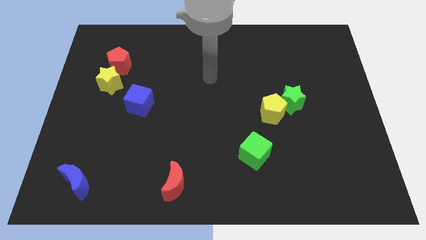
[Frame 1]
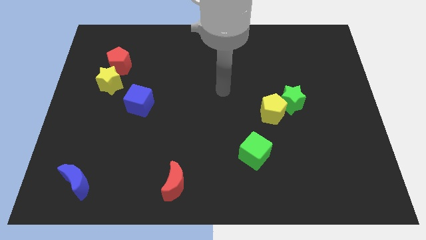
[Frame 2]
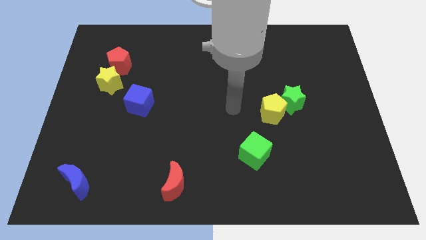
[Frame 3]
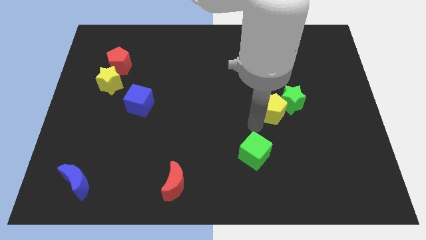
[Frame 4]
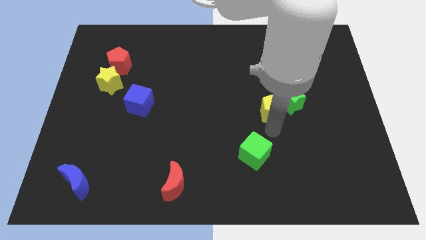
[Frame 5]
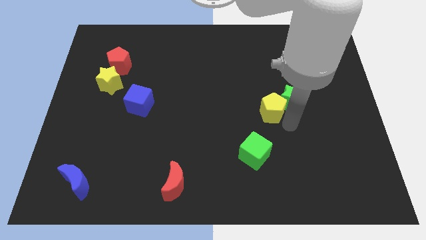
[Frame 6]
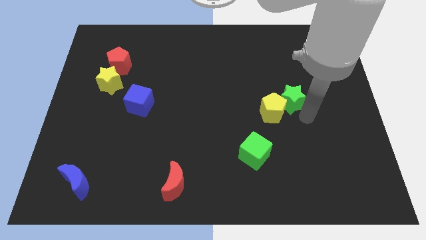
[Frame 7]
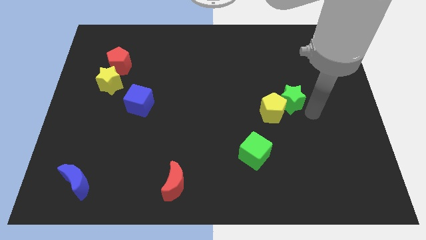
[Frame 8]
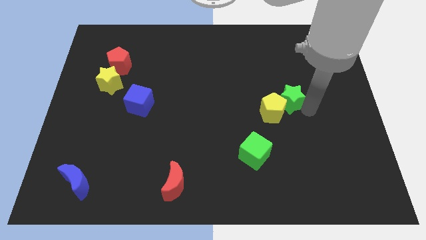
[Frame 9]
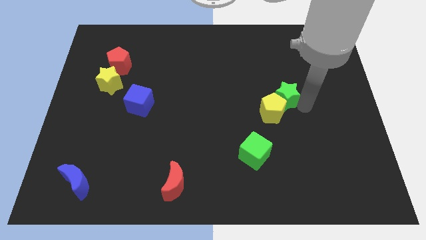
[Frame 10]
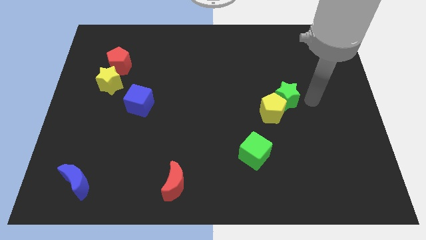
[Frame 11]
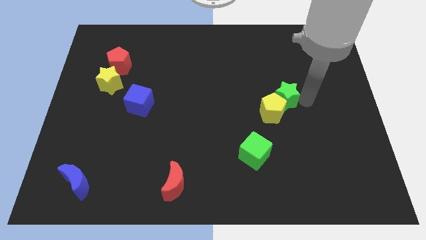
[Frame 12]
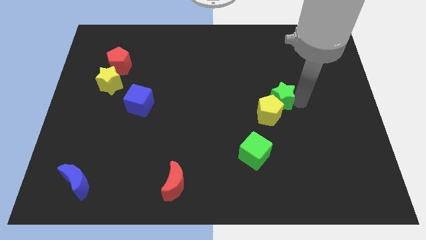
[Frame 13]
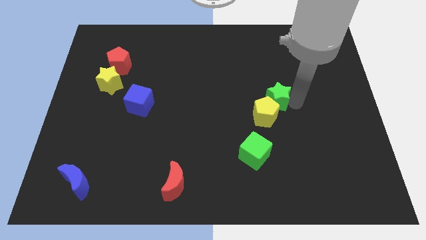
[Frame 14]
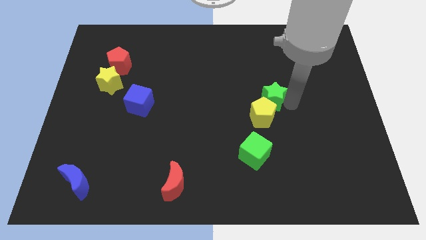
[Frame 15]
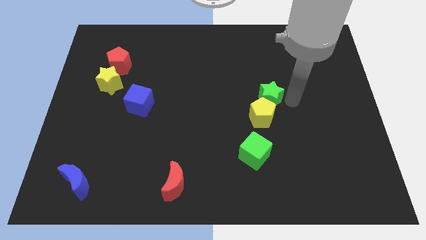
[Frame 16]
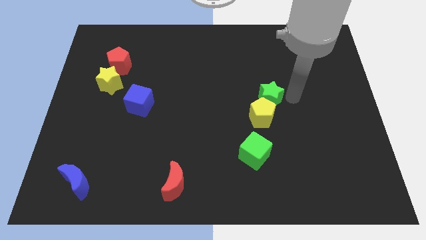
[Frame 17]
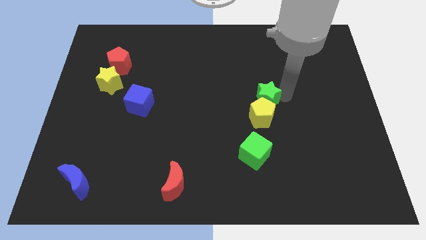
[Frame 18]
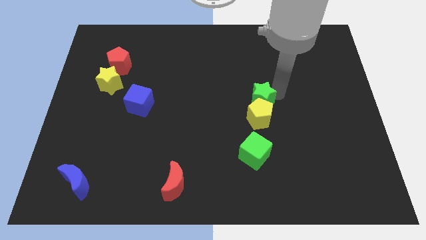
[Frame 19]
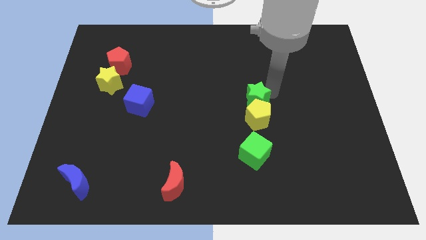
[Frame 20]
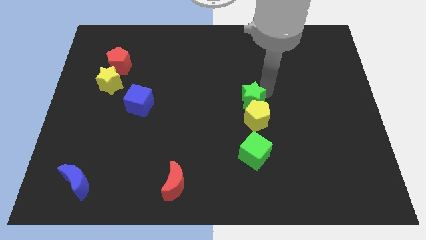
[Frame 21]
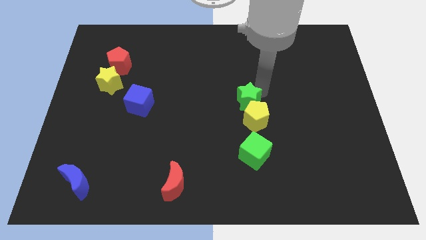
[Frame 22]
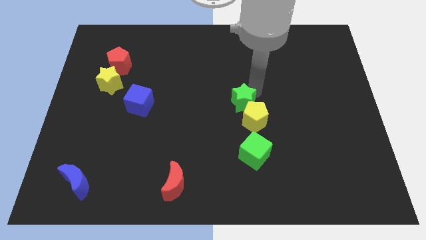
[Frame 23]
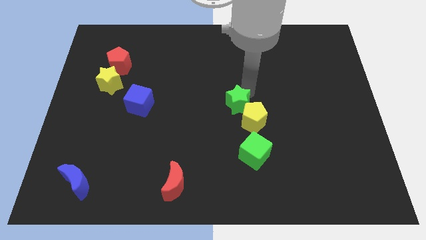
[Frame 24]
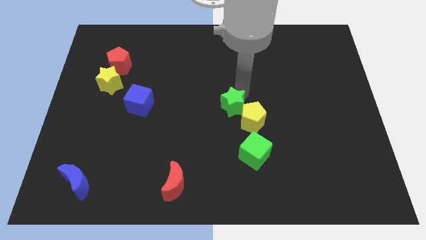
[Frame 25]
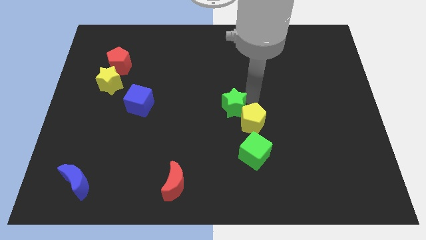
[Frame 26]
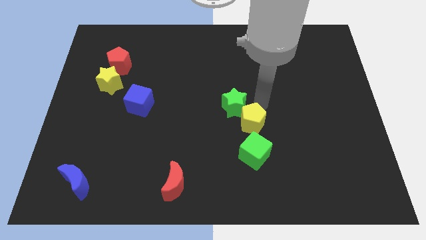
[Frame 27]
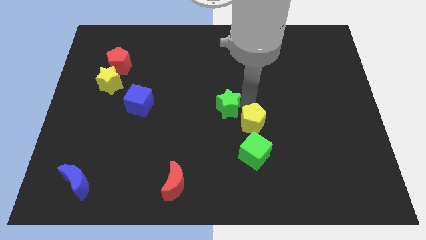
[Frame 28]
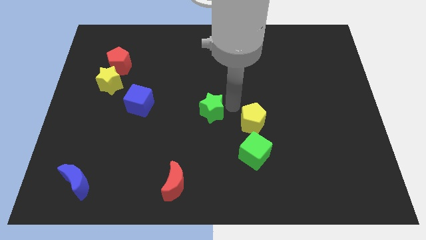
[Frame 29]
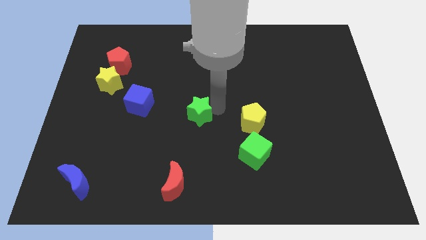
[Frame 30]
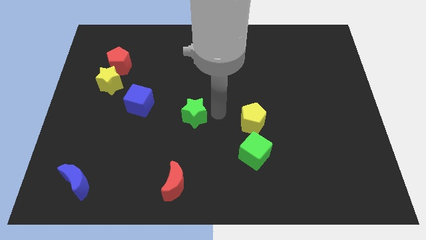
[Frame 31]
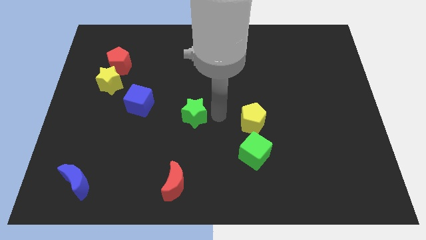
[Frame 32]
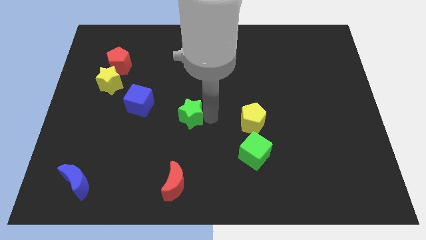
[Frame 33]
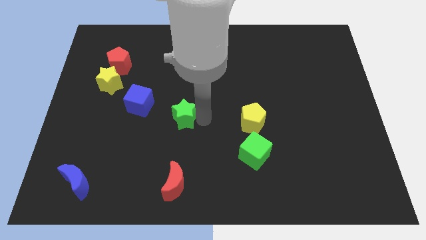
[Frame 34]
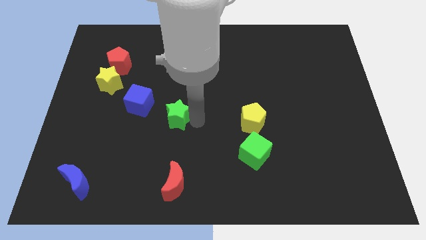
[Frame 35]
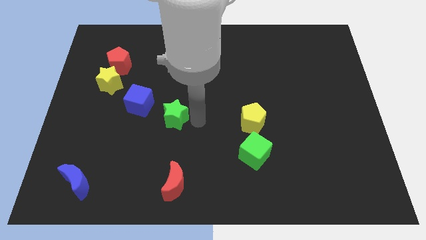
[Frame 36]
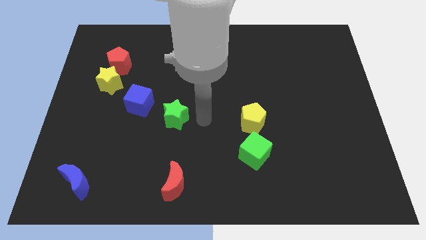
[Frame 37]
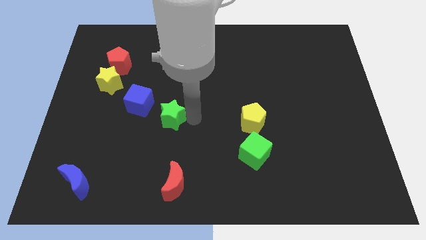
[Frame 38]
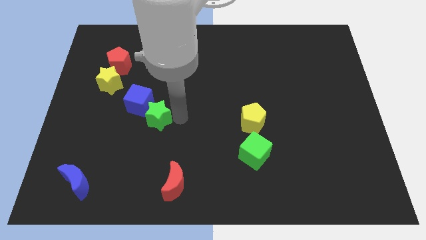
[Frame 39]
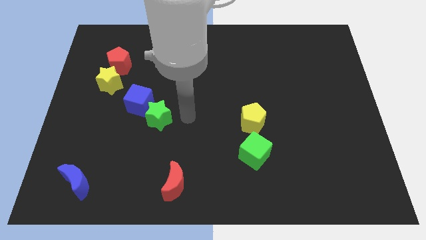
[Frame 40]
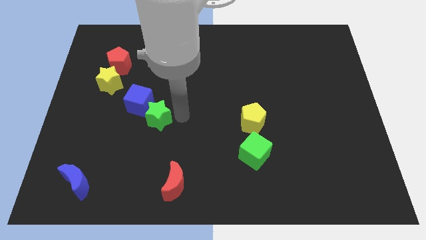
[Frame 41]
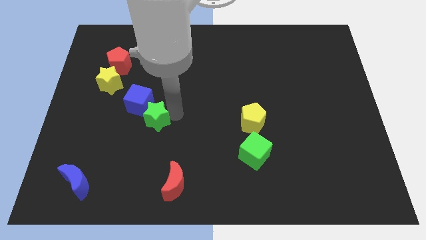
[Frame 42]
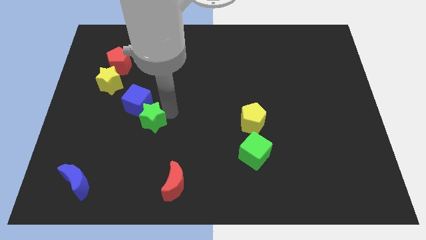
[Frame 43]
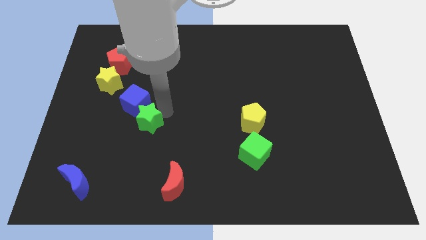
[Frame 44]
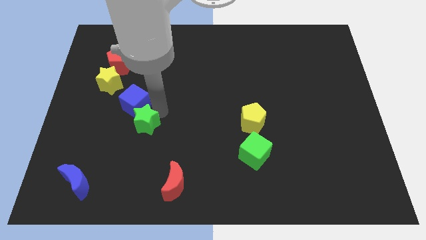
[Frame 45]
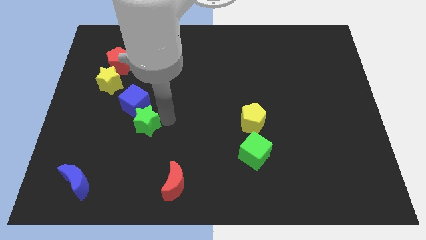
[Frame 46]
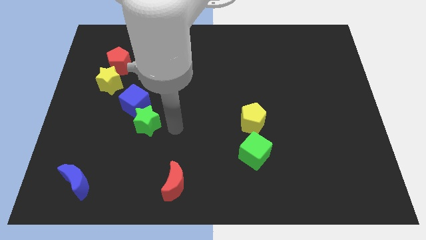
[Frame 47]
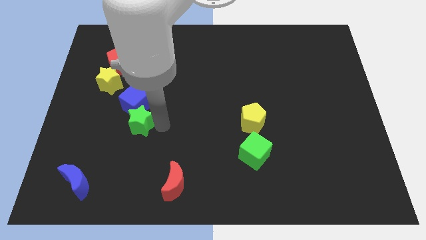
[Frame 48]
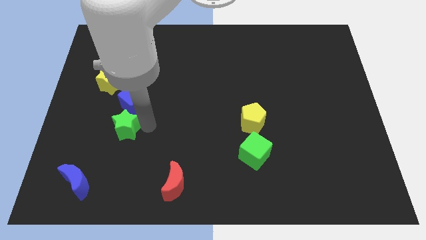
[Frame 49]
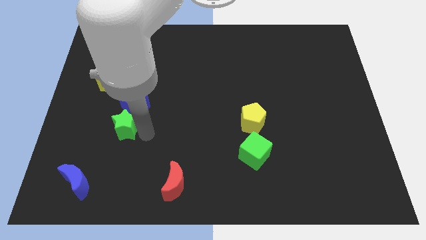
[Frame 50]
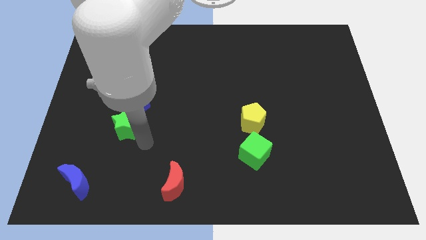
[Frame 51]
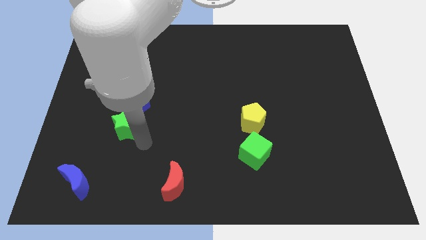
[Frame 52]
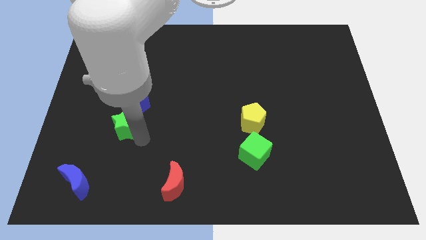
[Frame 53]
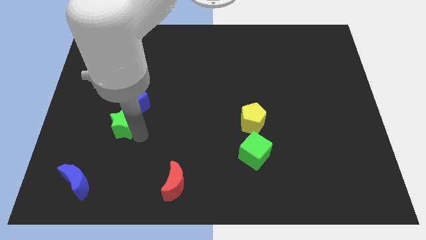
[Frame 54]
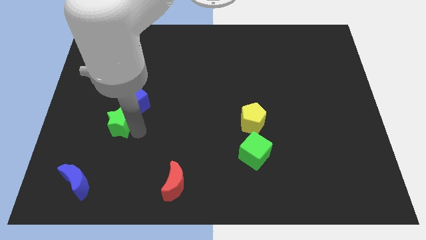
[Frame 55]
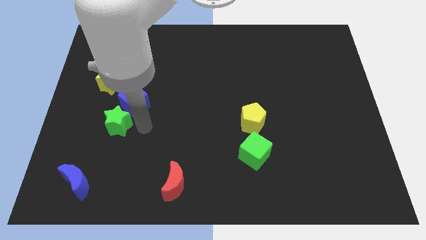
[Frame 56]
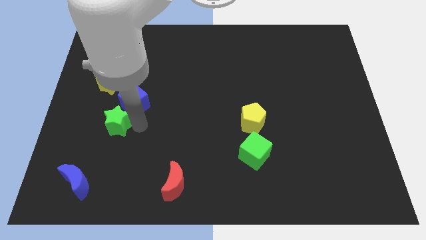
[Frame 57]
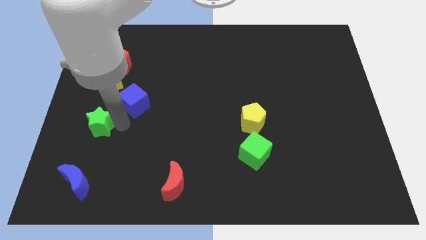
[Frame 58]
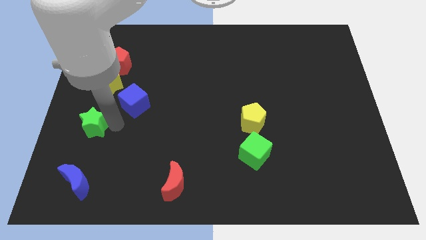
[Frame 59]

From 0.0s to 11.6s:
slide the green star to the left side of the board
